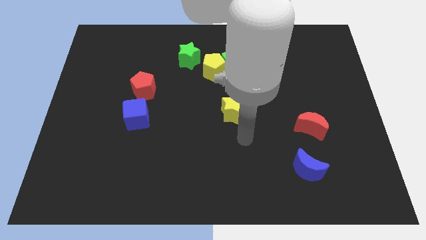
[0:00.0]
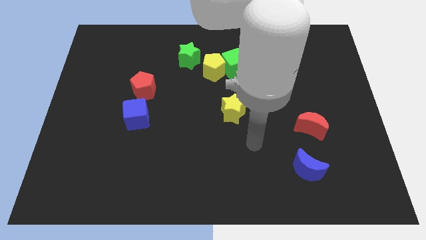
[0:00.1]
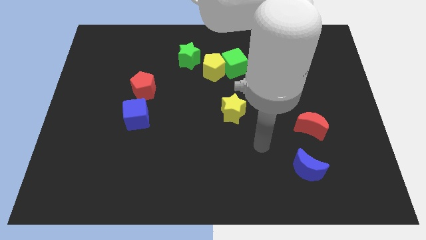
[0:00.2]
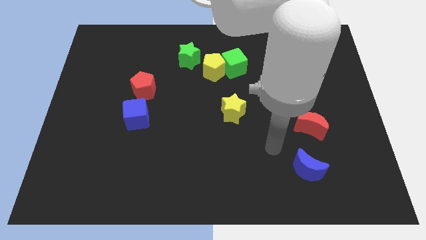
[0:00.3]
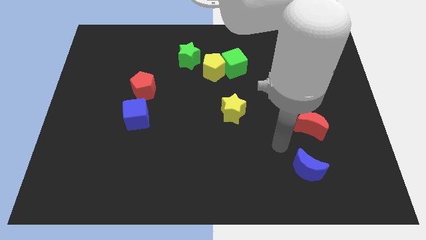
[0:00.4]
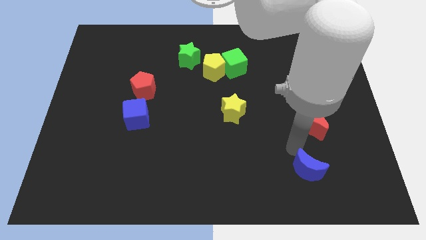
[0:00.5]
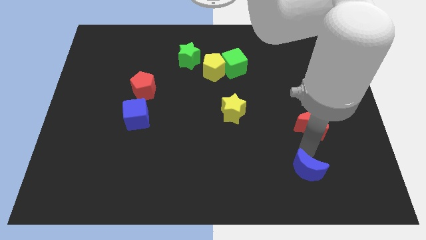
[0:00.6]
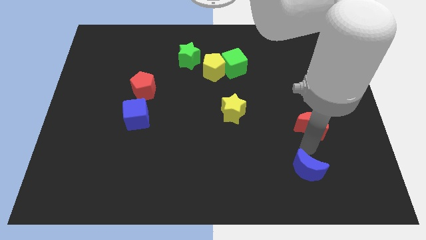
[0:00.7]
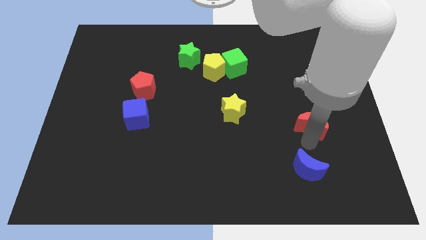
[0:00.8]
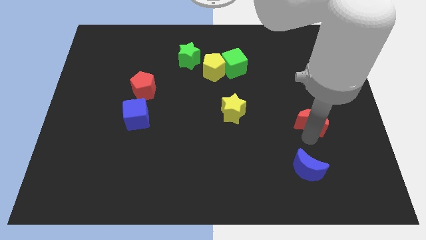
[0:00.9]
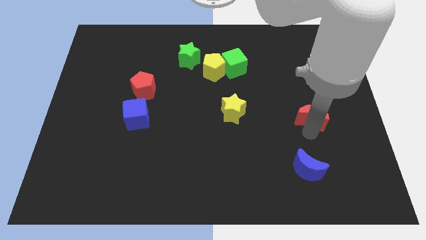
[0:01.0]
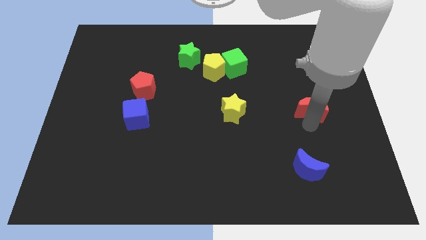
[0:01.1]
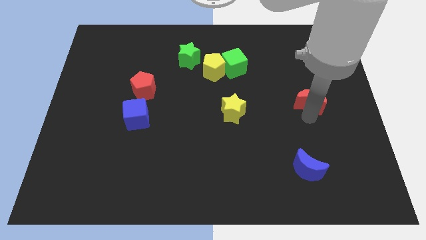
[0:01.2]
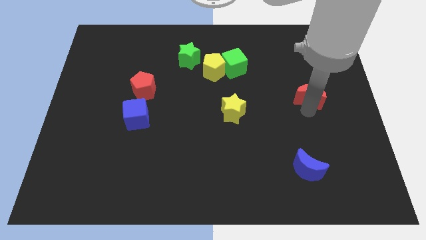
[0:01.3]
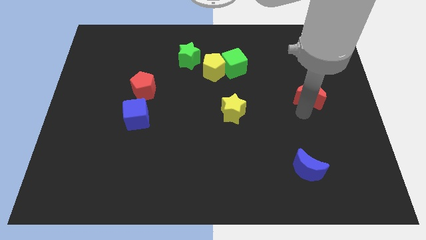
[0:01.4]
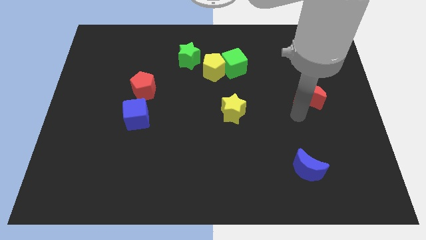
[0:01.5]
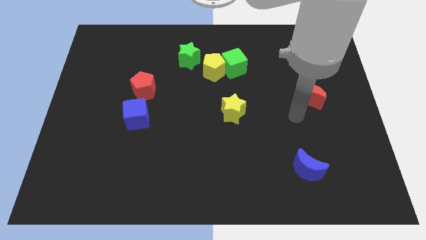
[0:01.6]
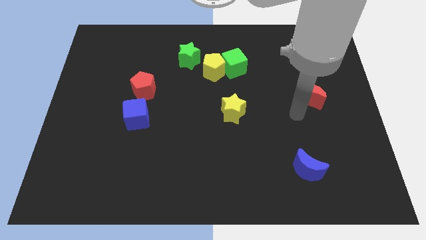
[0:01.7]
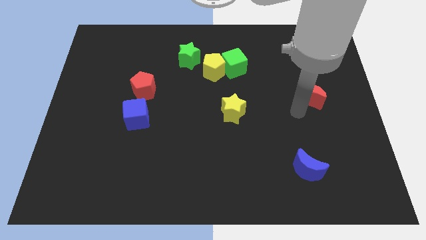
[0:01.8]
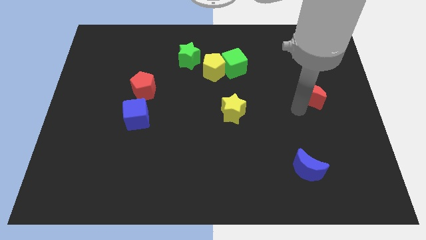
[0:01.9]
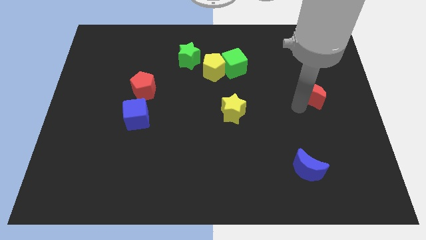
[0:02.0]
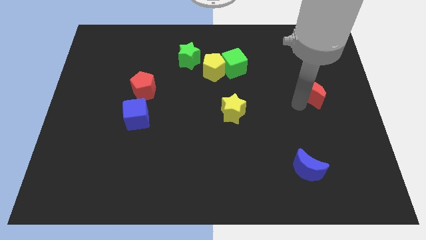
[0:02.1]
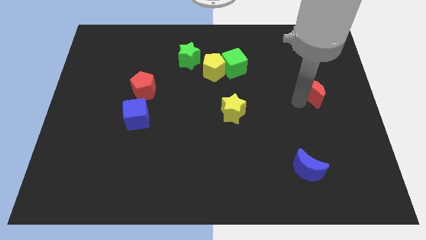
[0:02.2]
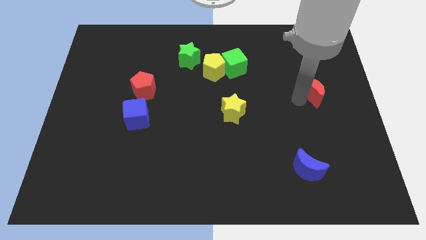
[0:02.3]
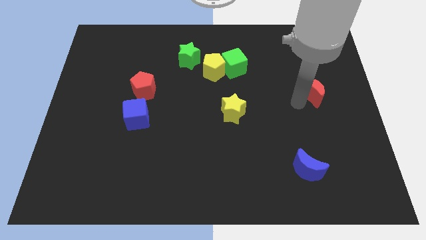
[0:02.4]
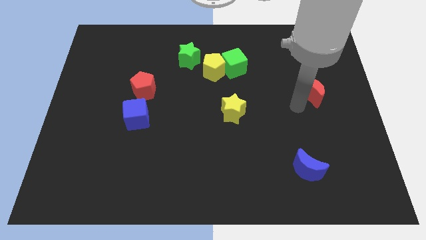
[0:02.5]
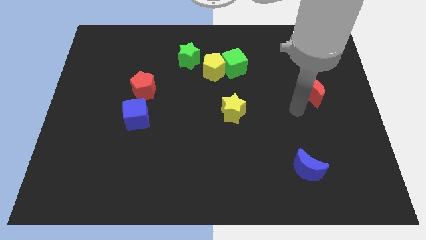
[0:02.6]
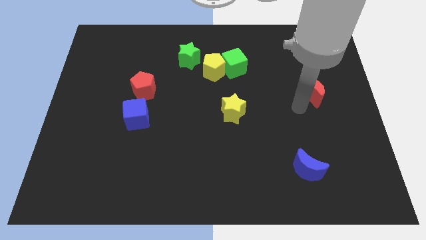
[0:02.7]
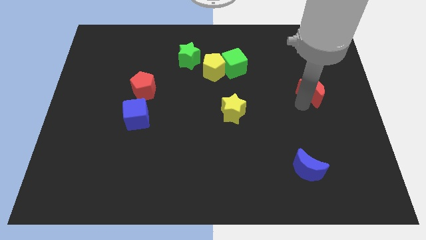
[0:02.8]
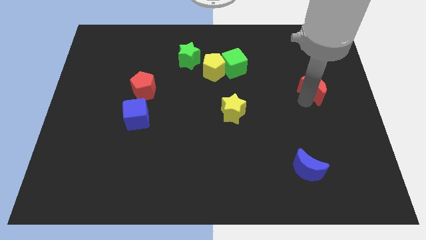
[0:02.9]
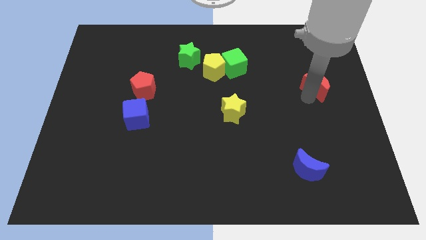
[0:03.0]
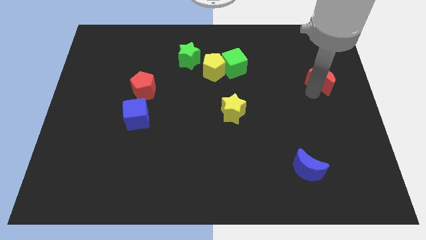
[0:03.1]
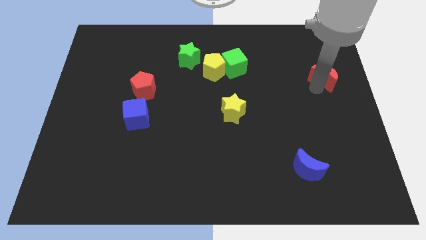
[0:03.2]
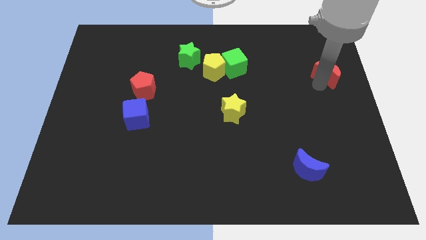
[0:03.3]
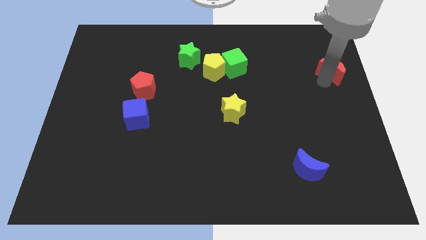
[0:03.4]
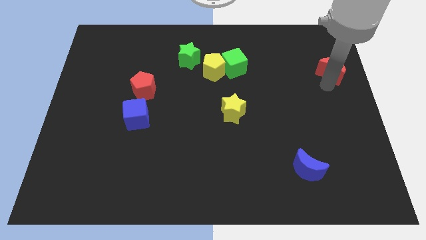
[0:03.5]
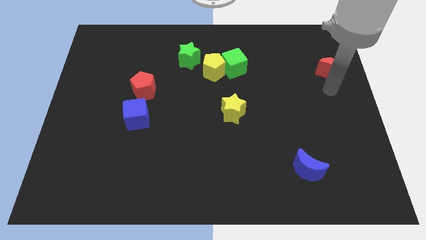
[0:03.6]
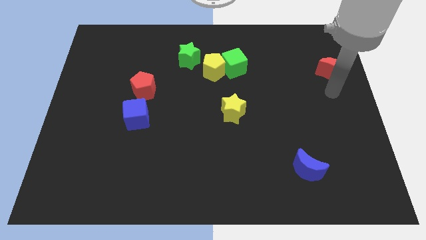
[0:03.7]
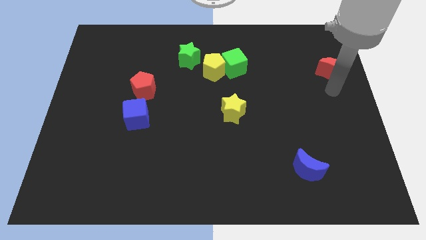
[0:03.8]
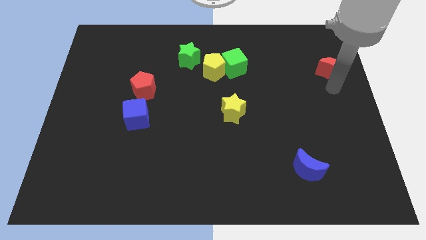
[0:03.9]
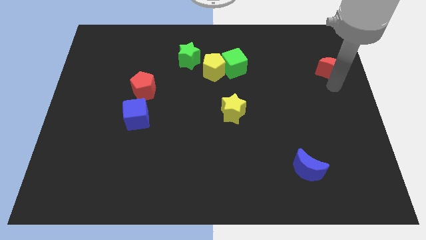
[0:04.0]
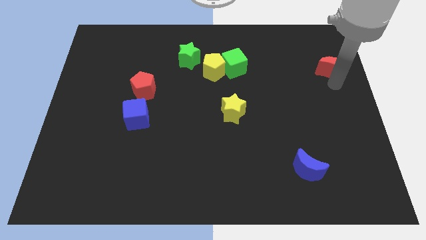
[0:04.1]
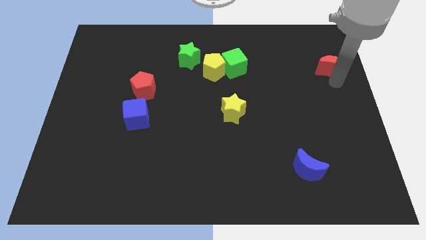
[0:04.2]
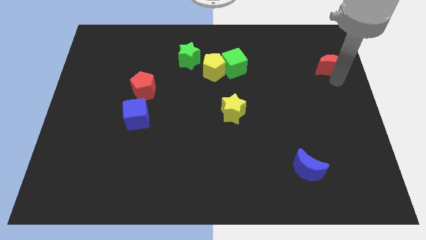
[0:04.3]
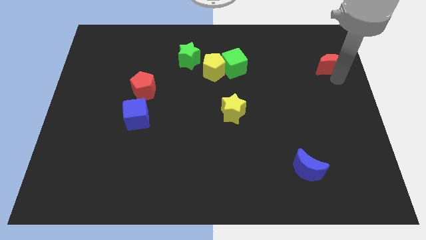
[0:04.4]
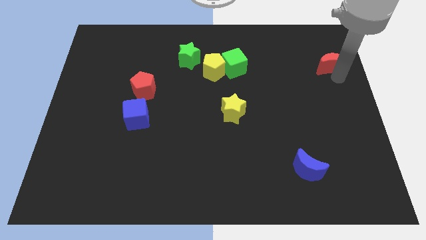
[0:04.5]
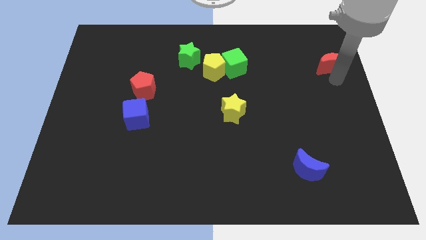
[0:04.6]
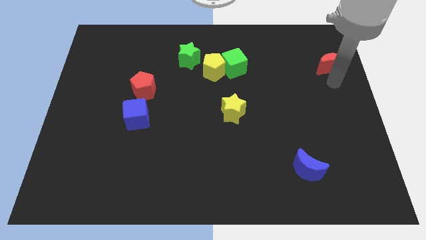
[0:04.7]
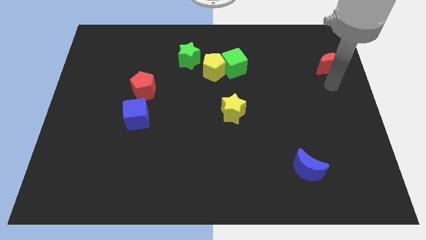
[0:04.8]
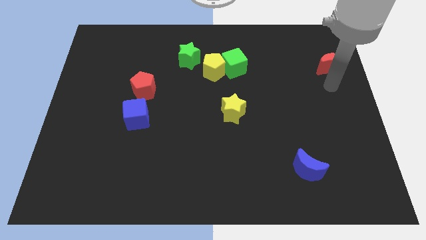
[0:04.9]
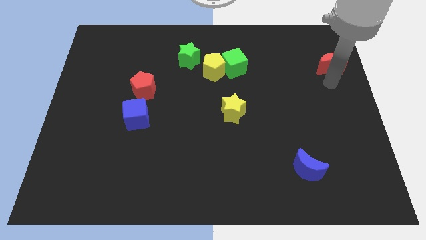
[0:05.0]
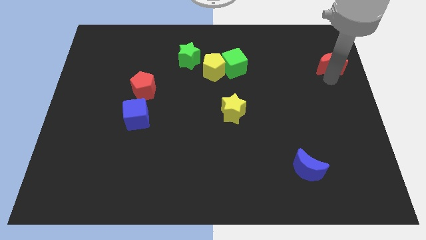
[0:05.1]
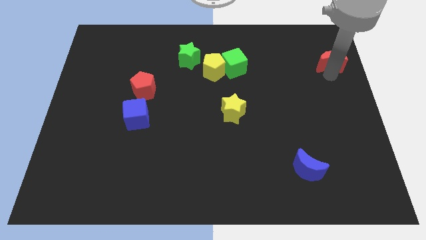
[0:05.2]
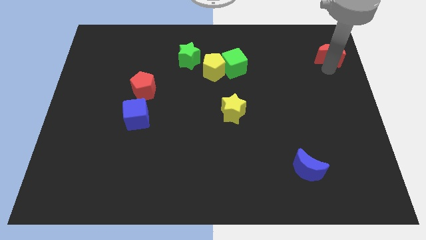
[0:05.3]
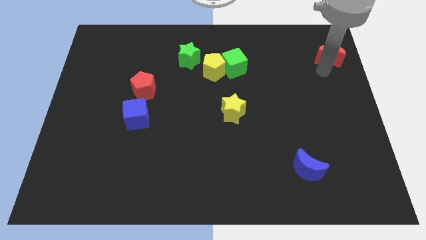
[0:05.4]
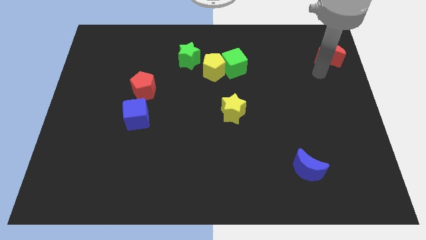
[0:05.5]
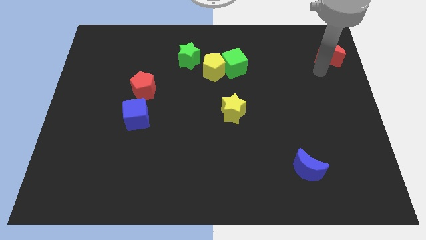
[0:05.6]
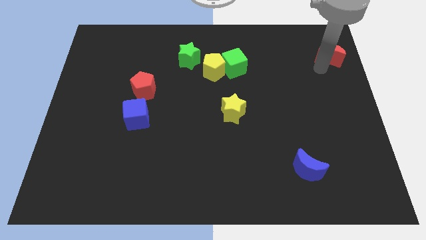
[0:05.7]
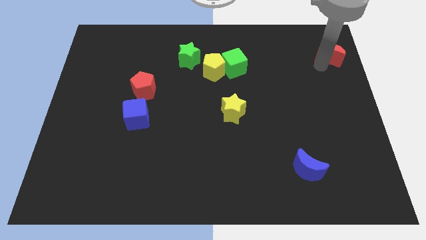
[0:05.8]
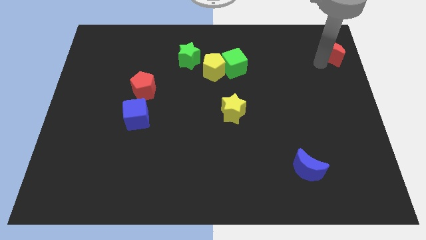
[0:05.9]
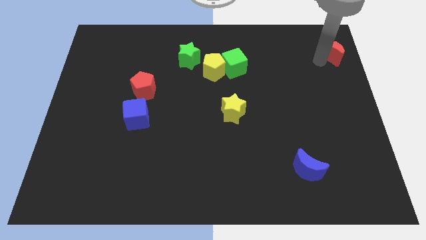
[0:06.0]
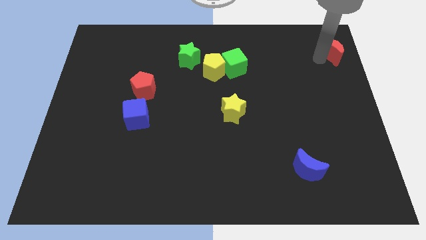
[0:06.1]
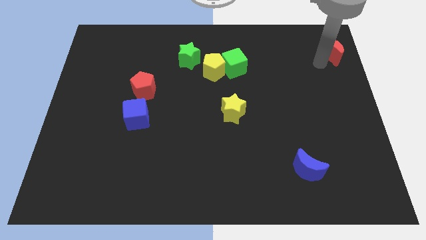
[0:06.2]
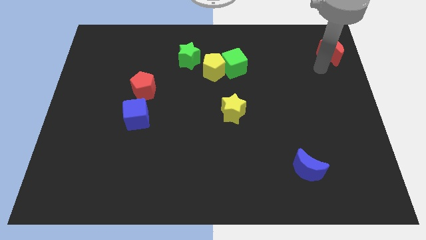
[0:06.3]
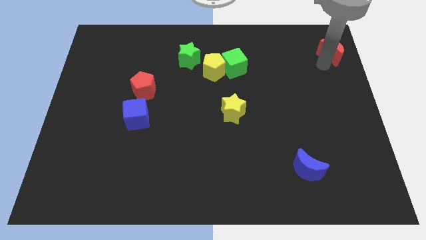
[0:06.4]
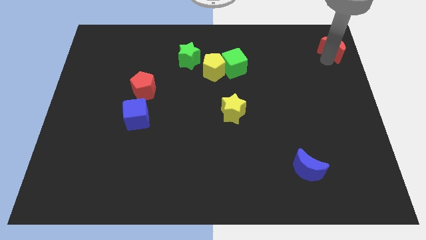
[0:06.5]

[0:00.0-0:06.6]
move the red moon to the top right

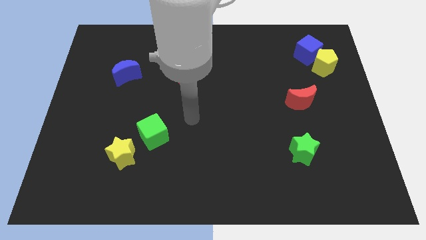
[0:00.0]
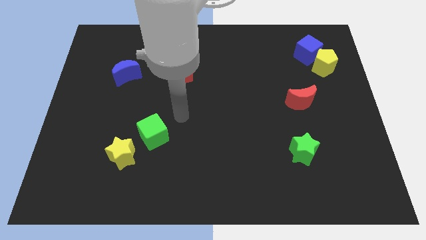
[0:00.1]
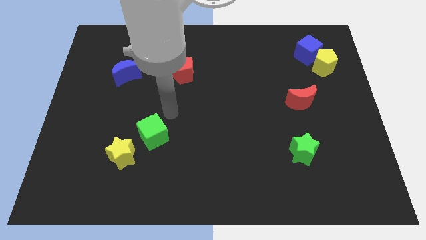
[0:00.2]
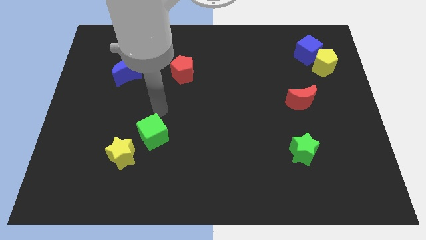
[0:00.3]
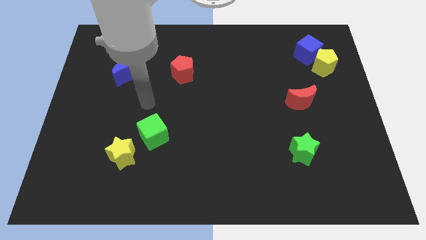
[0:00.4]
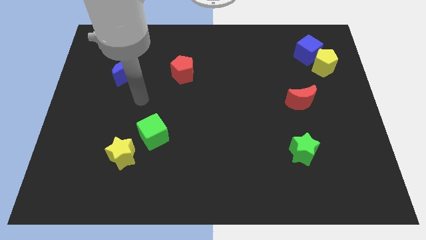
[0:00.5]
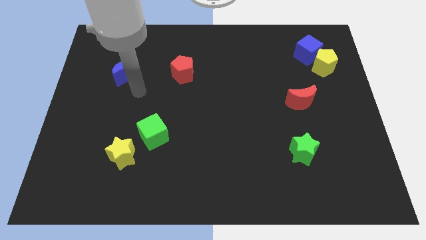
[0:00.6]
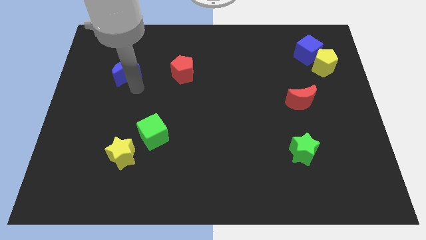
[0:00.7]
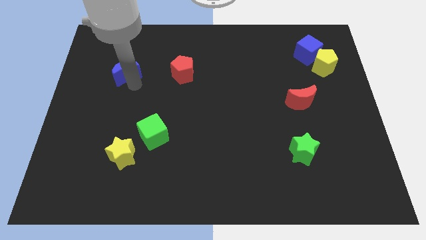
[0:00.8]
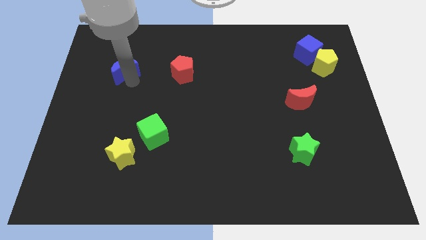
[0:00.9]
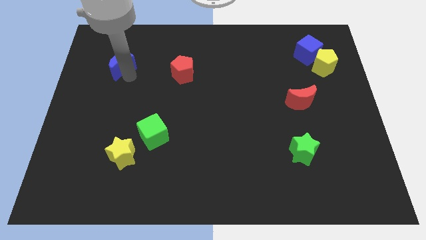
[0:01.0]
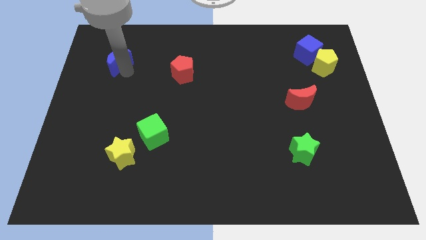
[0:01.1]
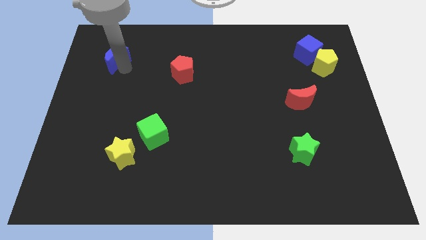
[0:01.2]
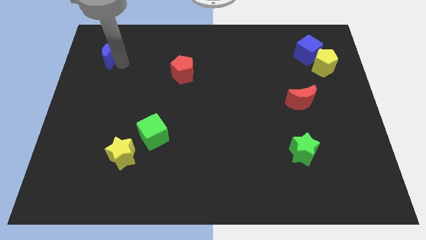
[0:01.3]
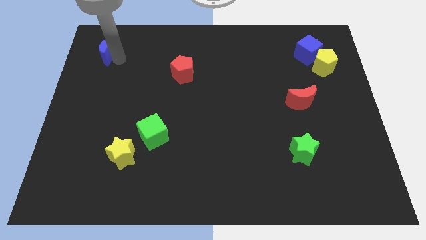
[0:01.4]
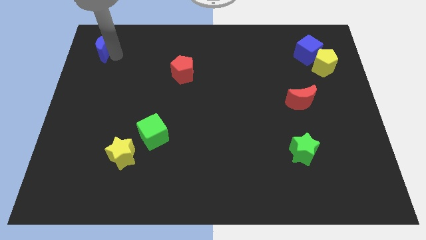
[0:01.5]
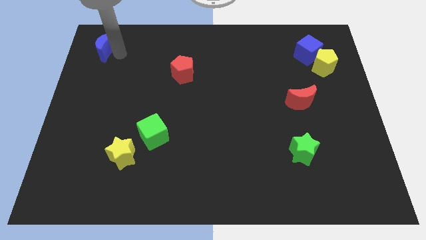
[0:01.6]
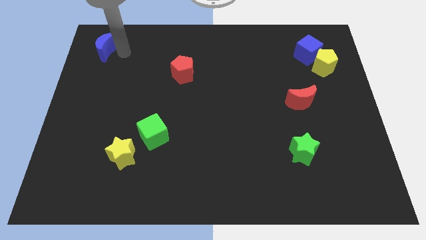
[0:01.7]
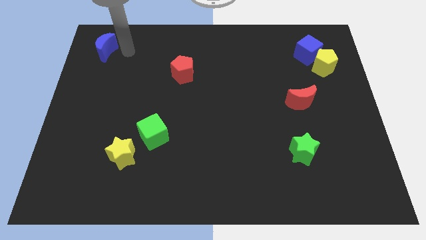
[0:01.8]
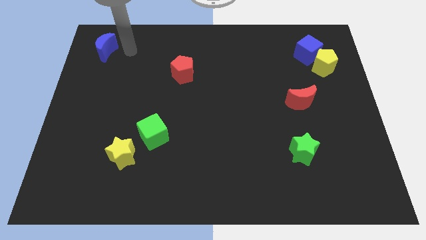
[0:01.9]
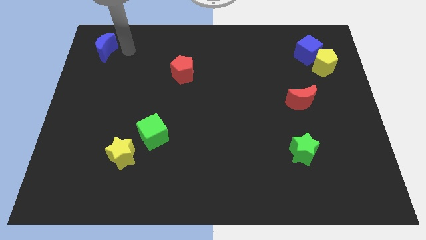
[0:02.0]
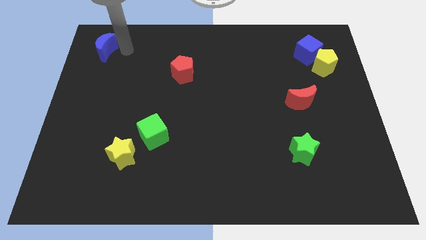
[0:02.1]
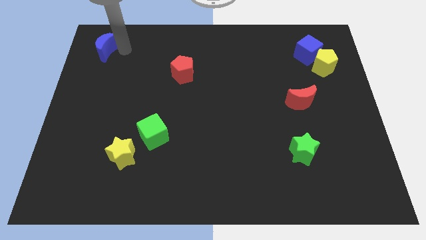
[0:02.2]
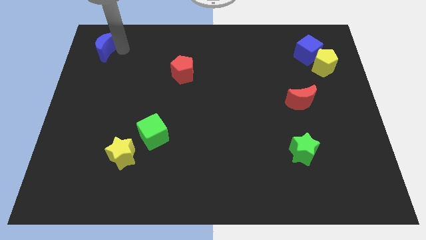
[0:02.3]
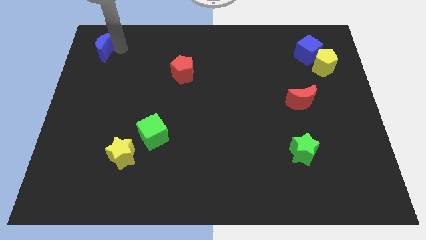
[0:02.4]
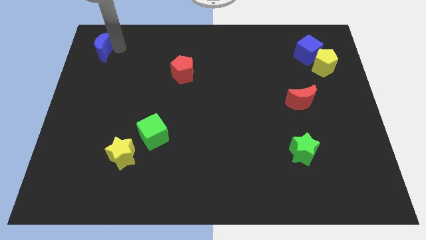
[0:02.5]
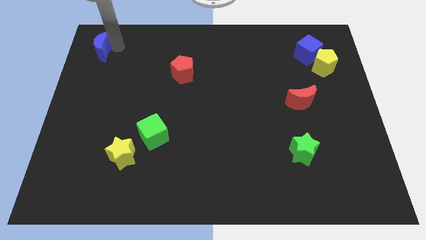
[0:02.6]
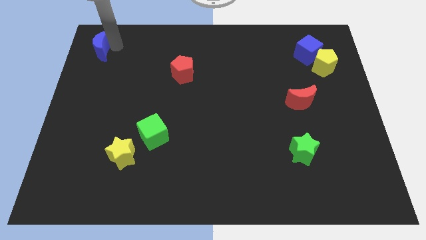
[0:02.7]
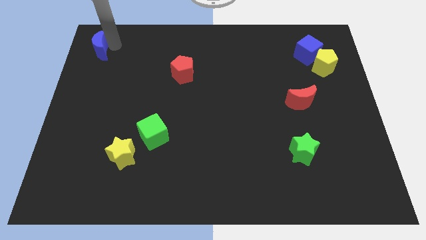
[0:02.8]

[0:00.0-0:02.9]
put the blue moon to the upper left corner
